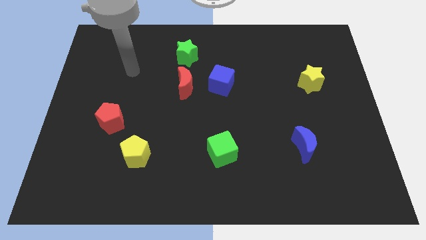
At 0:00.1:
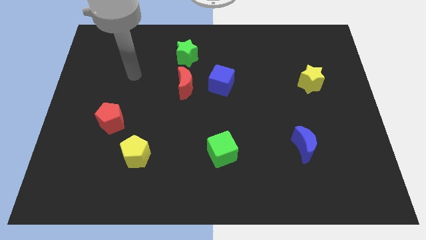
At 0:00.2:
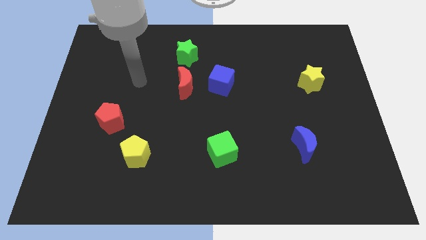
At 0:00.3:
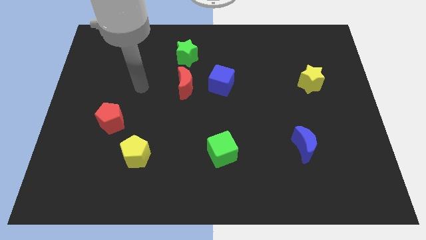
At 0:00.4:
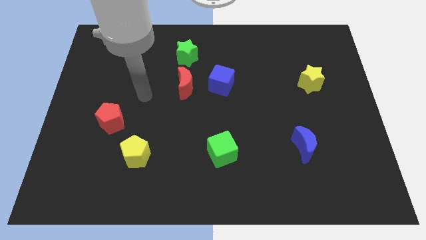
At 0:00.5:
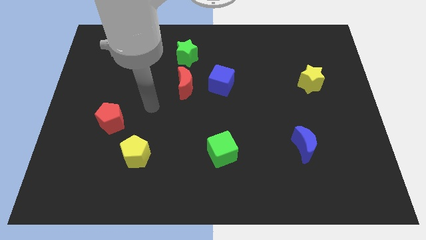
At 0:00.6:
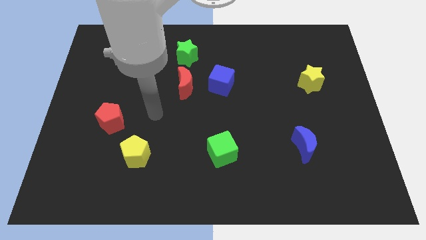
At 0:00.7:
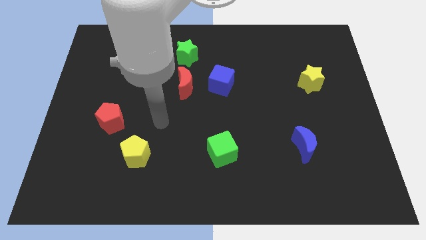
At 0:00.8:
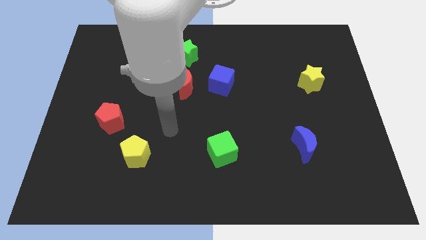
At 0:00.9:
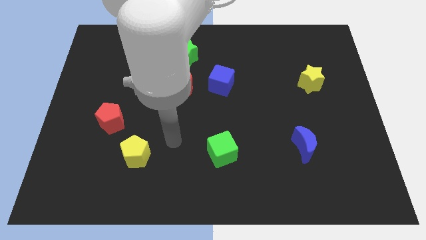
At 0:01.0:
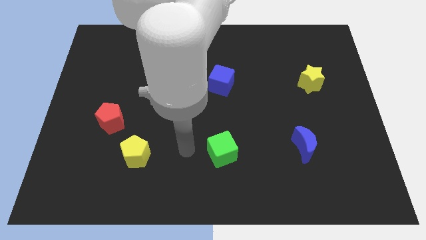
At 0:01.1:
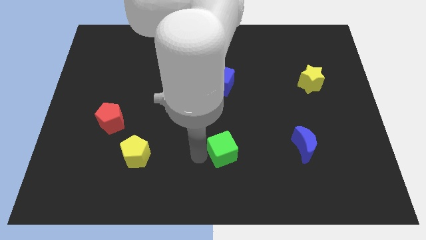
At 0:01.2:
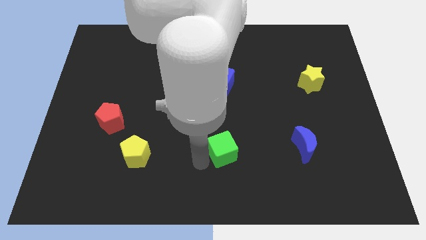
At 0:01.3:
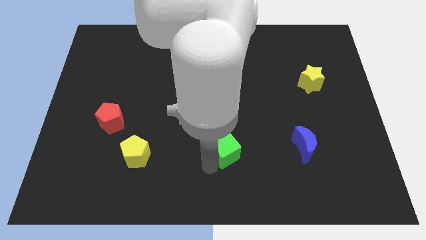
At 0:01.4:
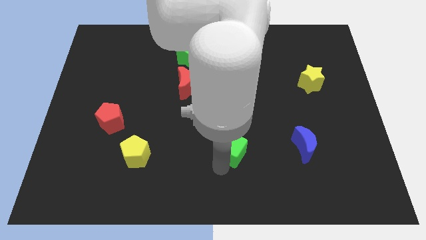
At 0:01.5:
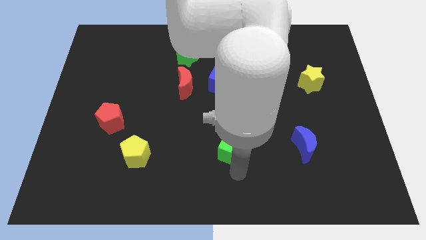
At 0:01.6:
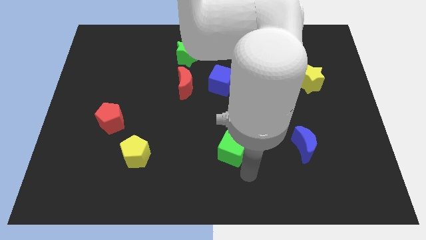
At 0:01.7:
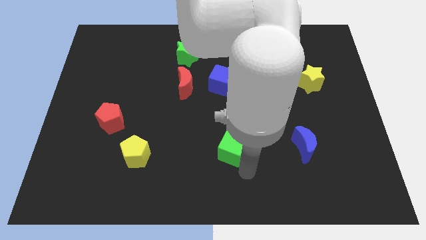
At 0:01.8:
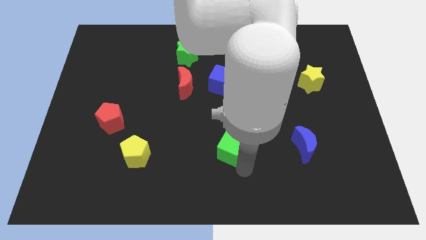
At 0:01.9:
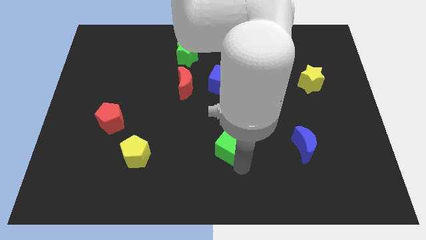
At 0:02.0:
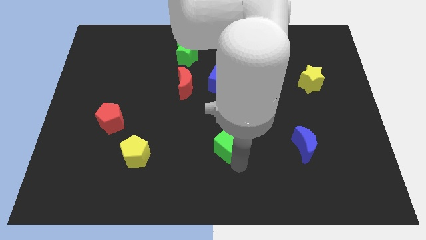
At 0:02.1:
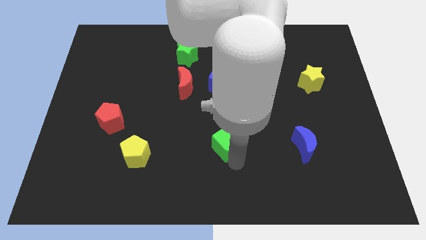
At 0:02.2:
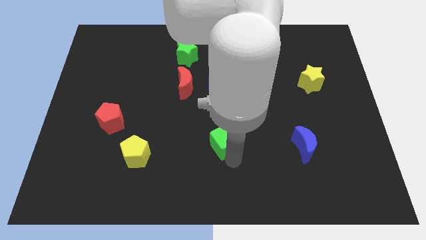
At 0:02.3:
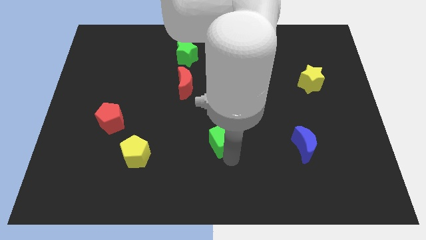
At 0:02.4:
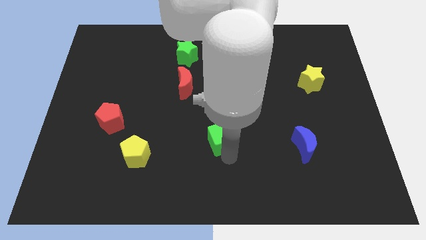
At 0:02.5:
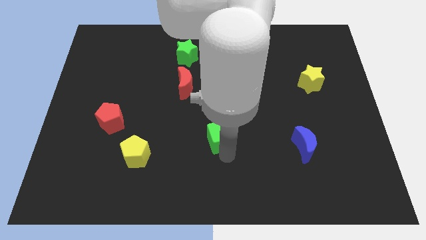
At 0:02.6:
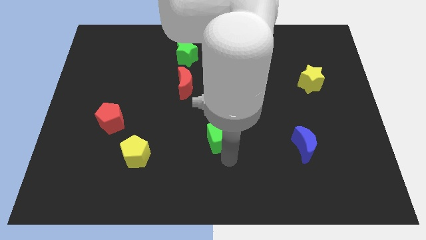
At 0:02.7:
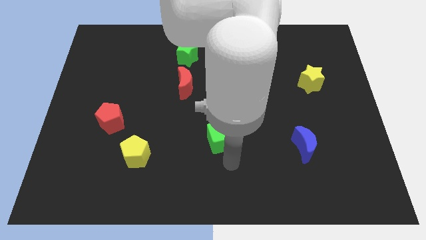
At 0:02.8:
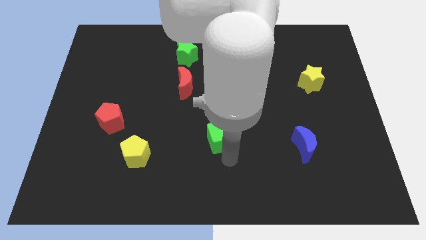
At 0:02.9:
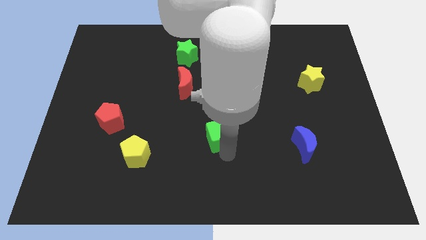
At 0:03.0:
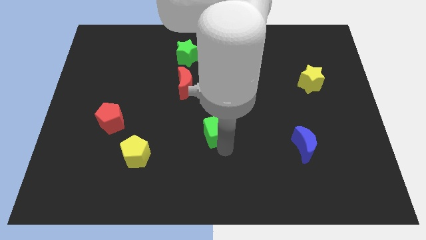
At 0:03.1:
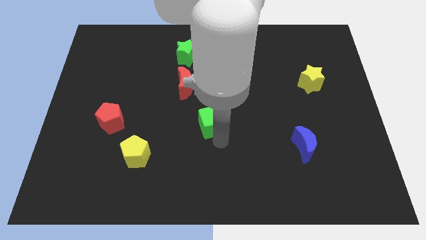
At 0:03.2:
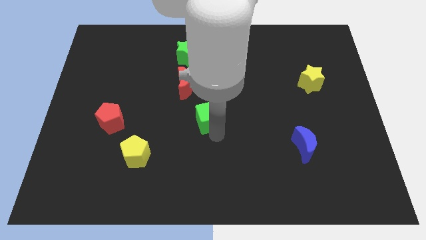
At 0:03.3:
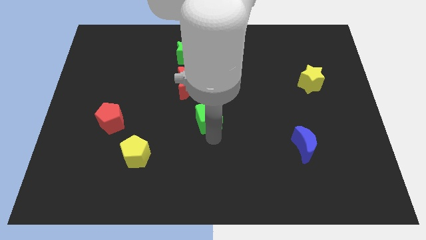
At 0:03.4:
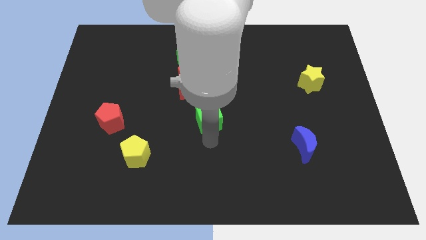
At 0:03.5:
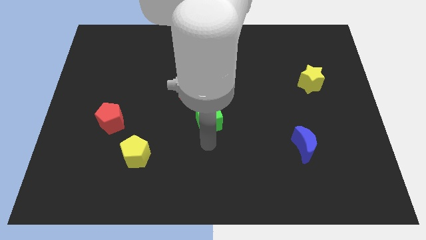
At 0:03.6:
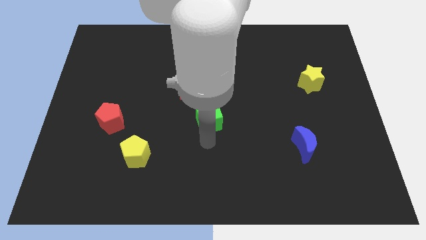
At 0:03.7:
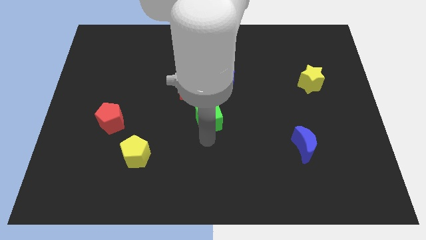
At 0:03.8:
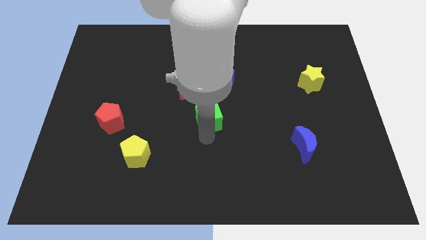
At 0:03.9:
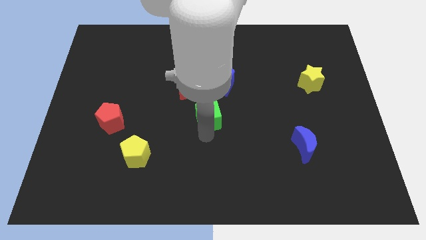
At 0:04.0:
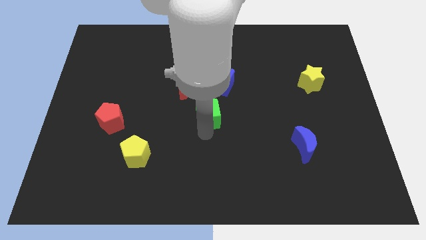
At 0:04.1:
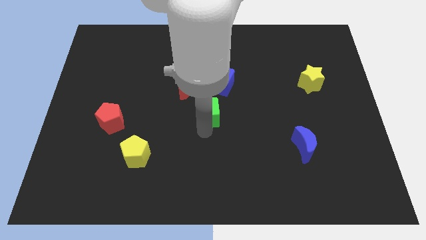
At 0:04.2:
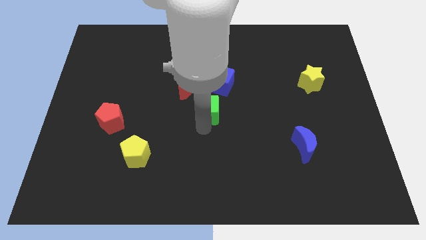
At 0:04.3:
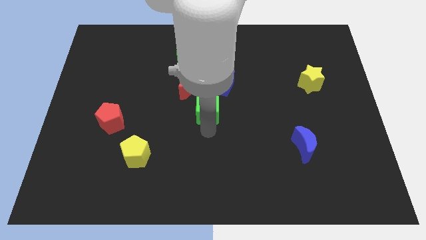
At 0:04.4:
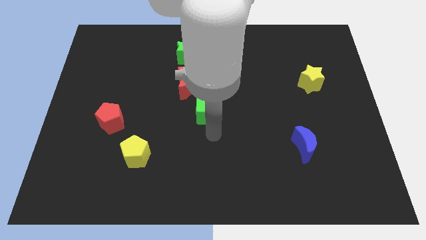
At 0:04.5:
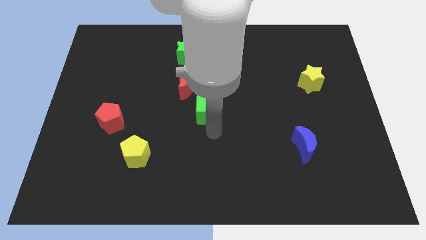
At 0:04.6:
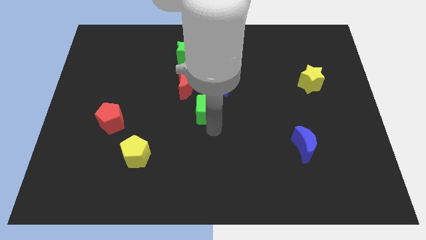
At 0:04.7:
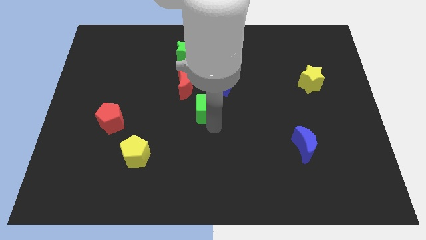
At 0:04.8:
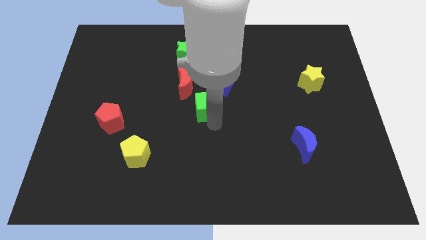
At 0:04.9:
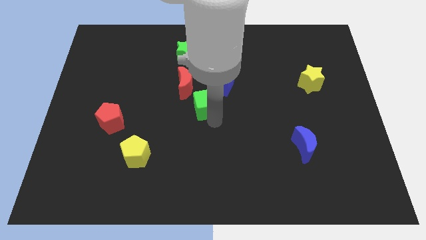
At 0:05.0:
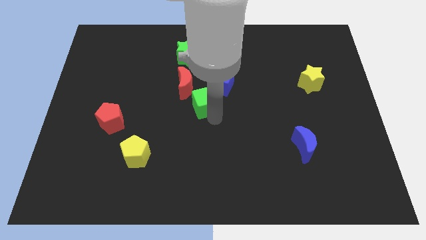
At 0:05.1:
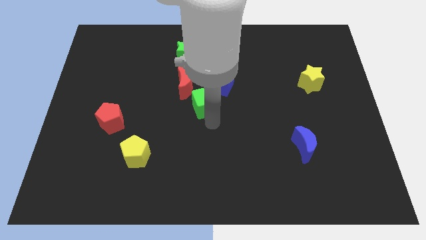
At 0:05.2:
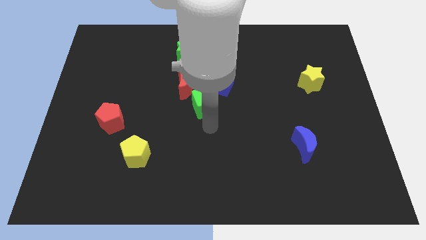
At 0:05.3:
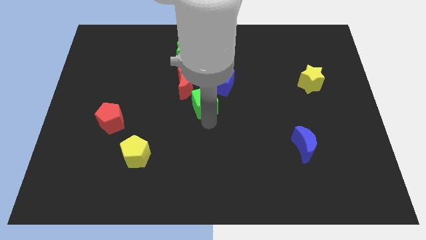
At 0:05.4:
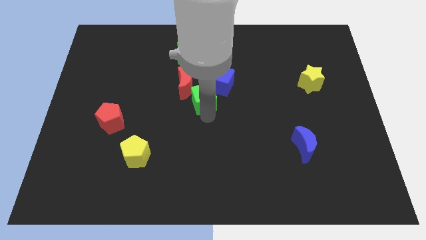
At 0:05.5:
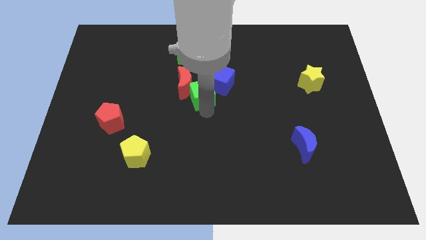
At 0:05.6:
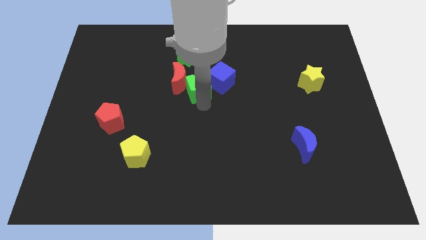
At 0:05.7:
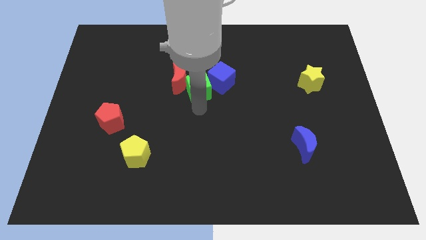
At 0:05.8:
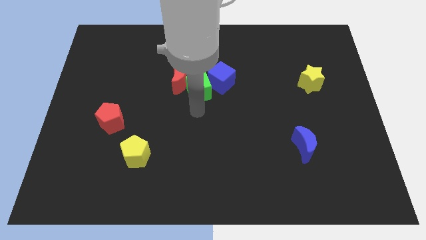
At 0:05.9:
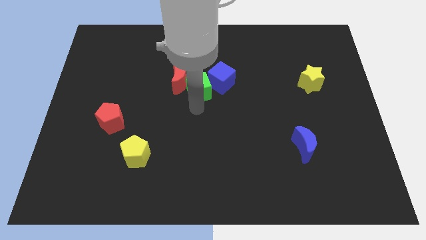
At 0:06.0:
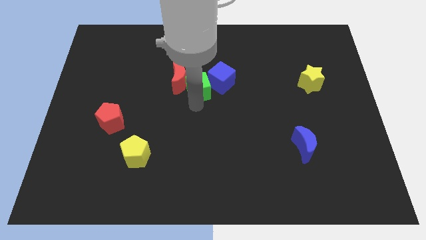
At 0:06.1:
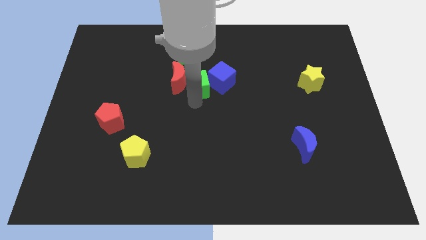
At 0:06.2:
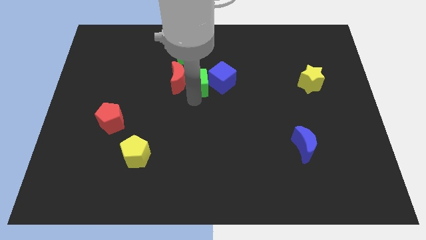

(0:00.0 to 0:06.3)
slide the green cube to the top right side of the red moon

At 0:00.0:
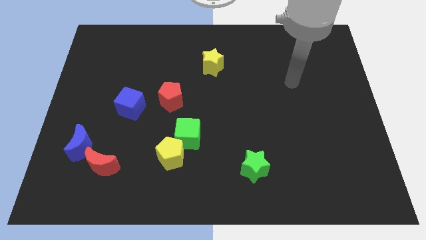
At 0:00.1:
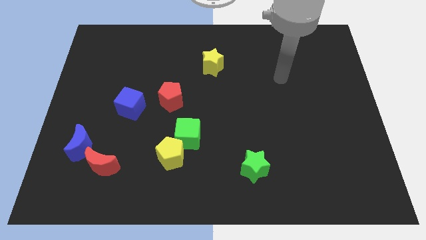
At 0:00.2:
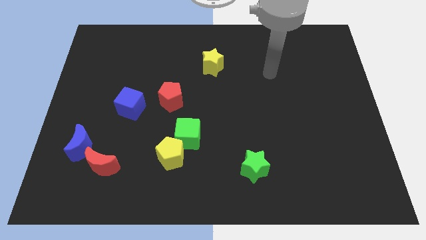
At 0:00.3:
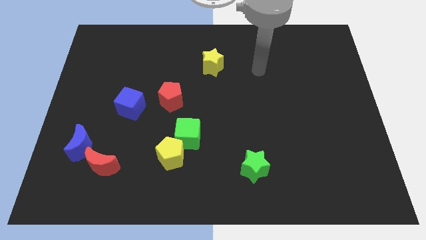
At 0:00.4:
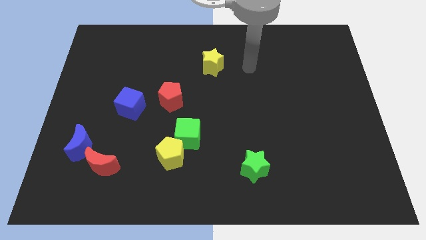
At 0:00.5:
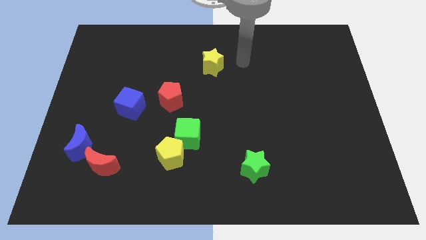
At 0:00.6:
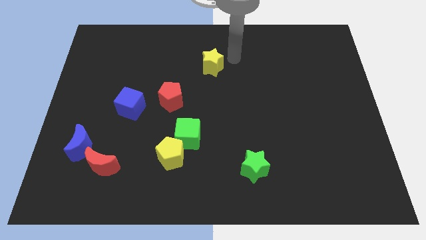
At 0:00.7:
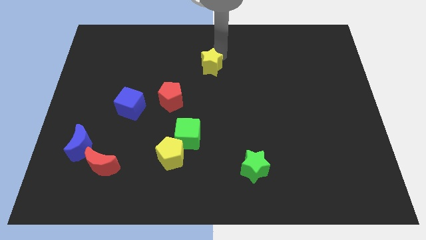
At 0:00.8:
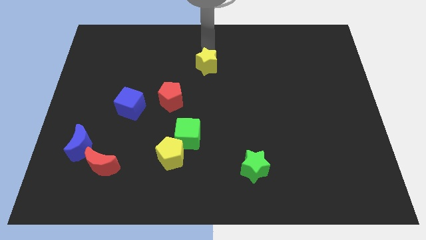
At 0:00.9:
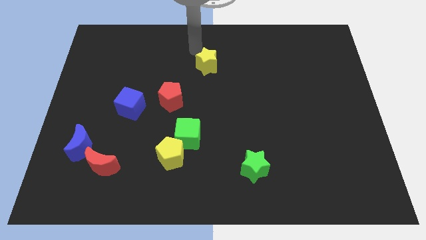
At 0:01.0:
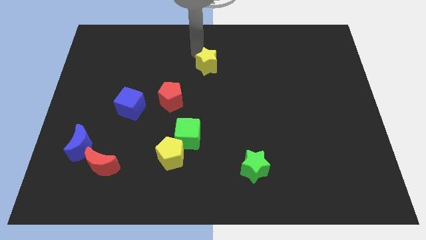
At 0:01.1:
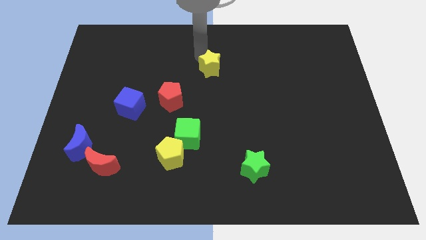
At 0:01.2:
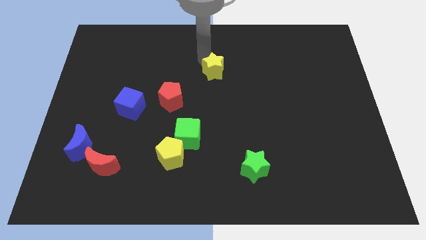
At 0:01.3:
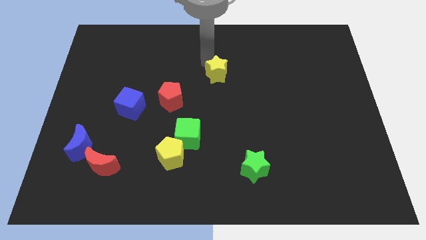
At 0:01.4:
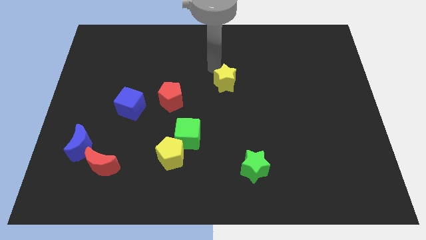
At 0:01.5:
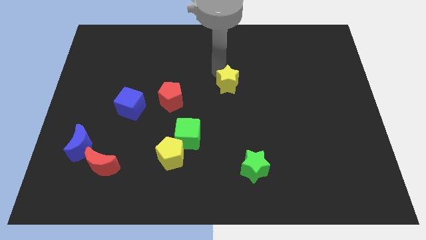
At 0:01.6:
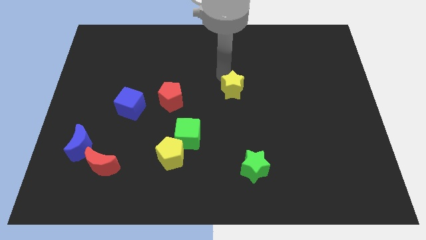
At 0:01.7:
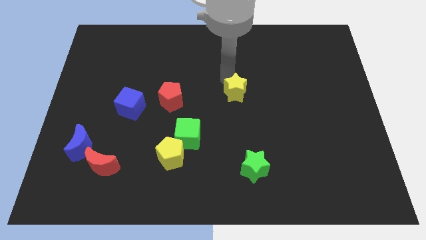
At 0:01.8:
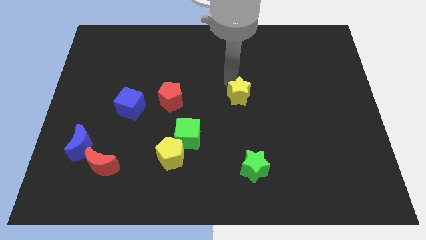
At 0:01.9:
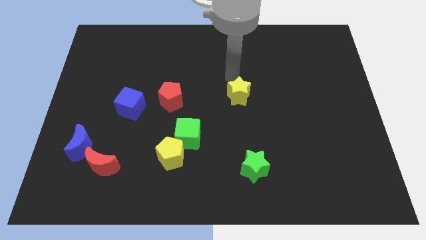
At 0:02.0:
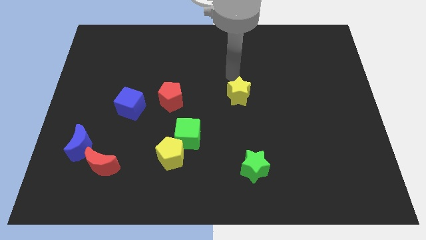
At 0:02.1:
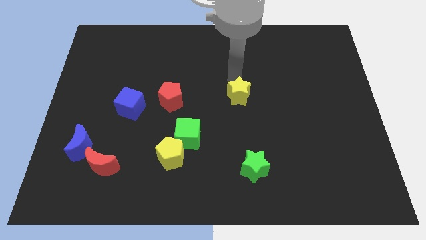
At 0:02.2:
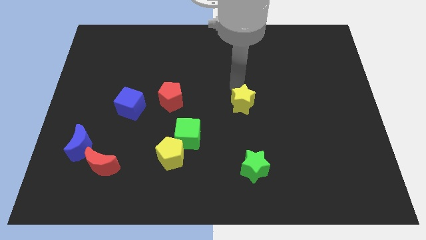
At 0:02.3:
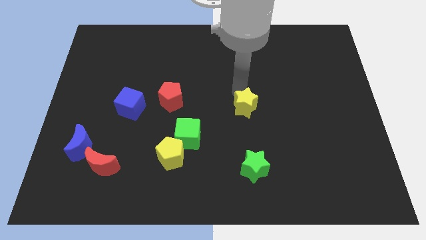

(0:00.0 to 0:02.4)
push the yellow star to the top of the green star
